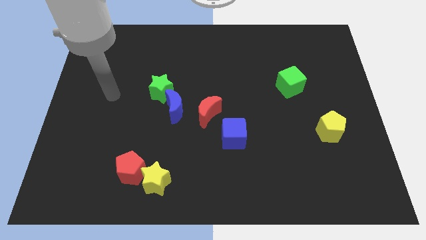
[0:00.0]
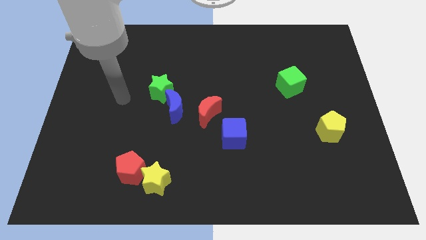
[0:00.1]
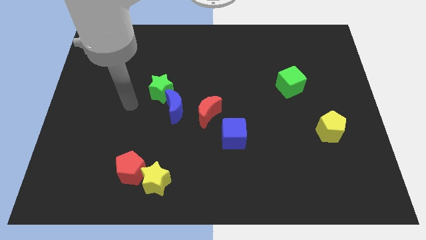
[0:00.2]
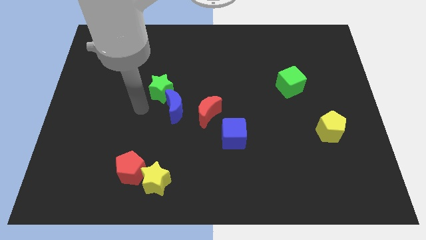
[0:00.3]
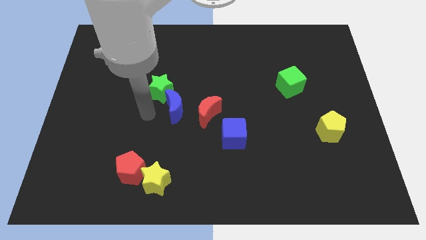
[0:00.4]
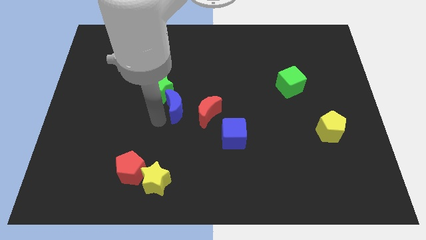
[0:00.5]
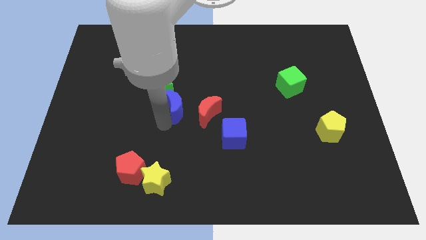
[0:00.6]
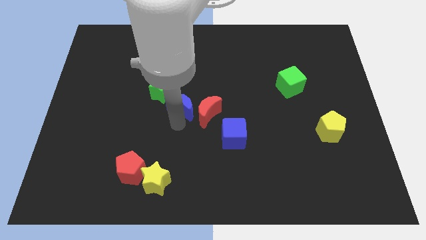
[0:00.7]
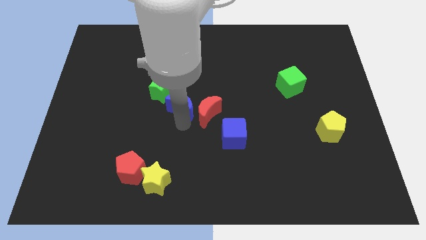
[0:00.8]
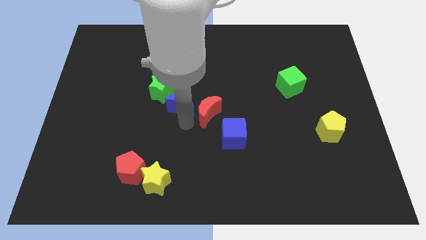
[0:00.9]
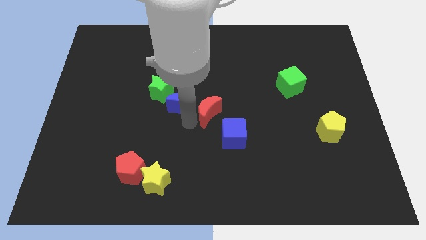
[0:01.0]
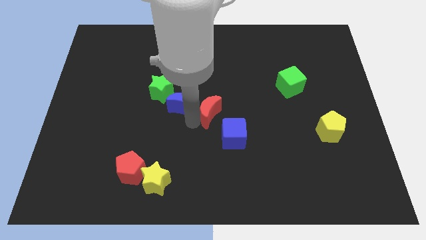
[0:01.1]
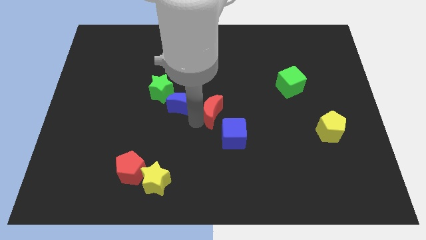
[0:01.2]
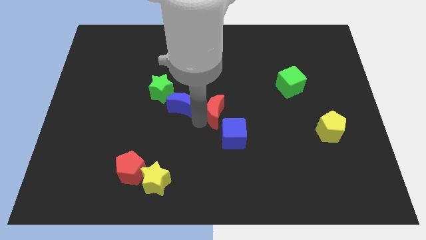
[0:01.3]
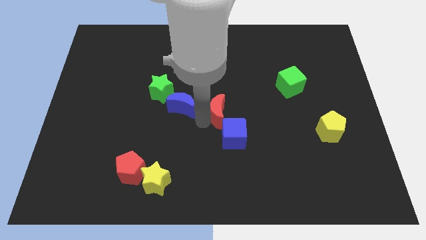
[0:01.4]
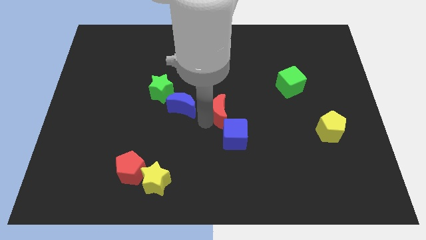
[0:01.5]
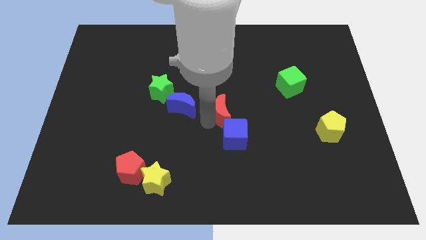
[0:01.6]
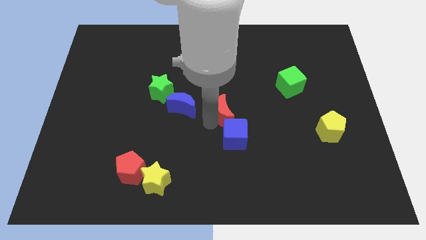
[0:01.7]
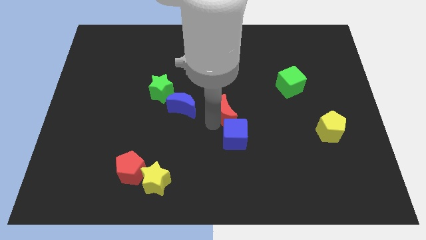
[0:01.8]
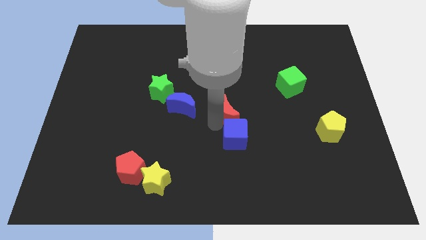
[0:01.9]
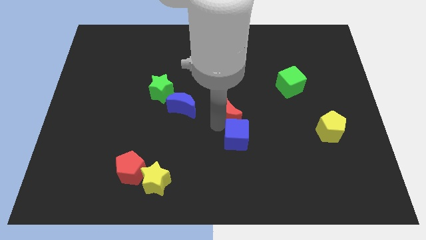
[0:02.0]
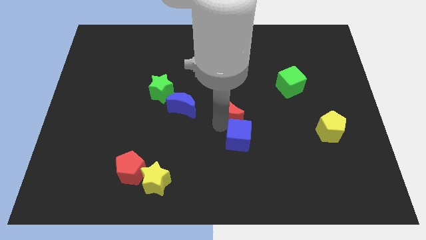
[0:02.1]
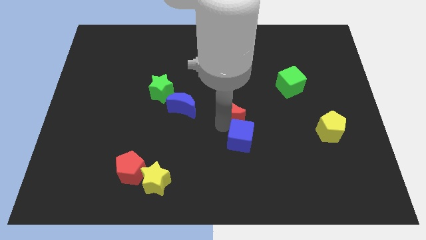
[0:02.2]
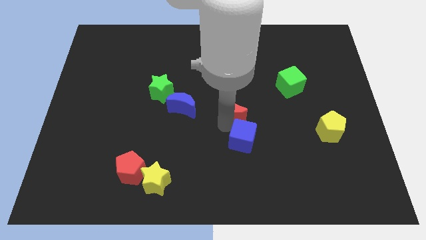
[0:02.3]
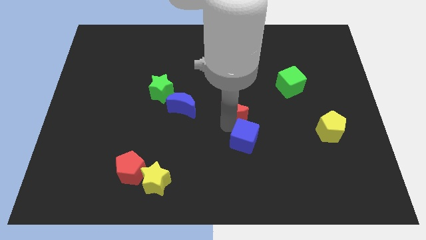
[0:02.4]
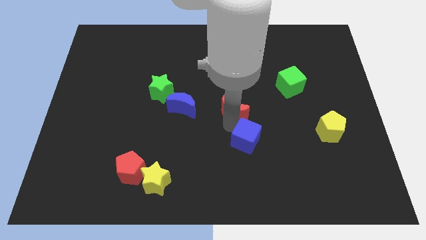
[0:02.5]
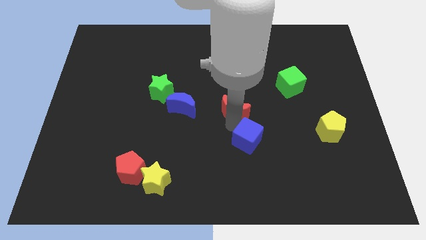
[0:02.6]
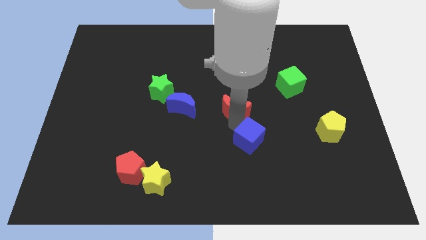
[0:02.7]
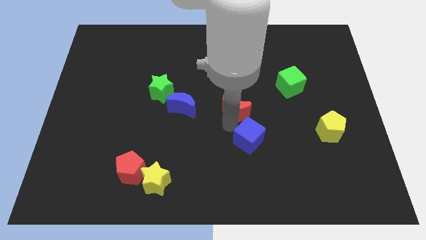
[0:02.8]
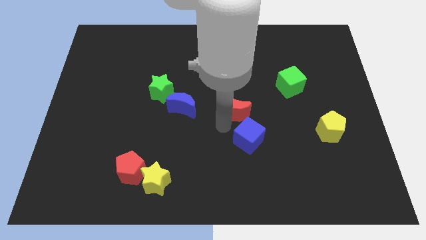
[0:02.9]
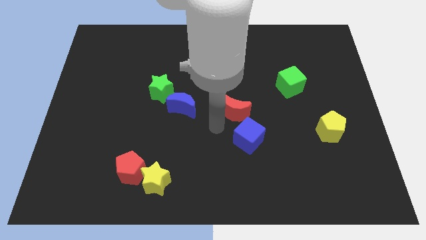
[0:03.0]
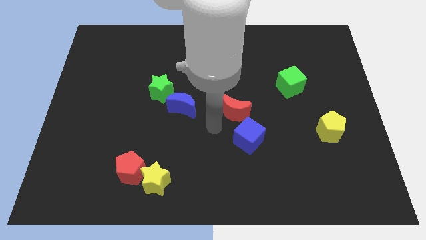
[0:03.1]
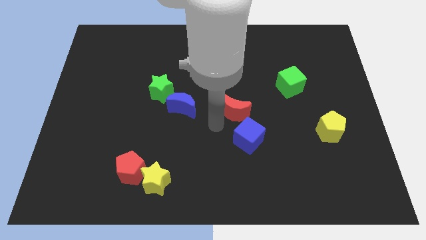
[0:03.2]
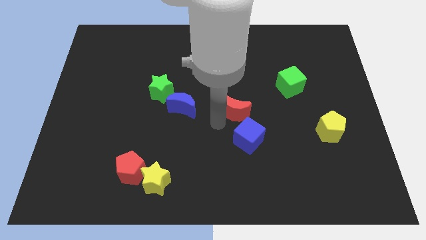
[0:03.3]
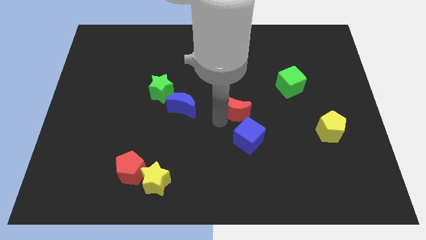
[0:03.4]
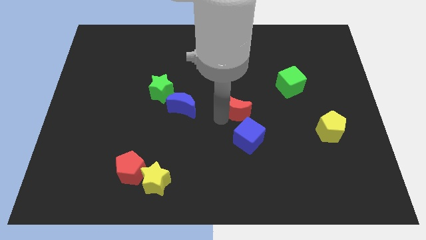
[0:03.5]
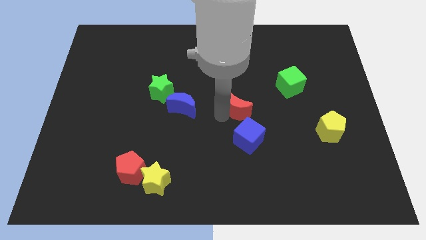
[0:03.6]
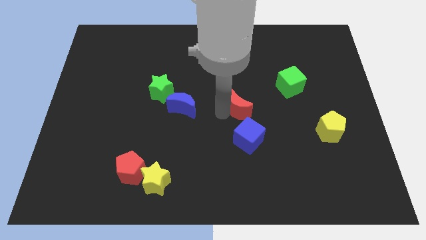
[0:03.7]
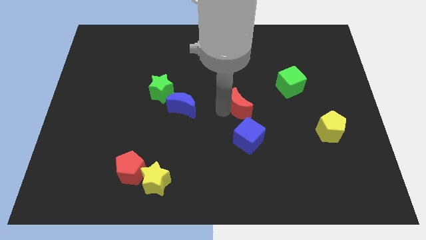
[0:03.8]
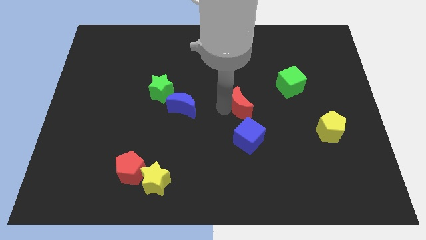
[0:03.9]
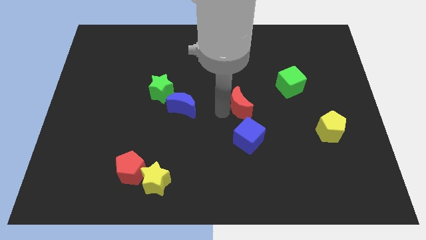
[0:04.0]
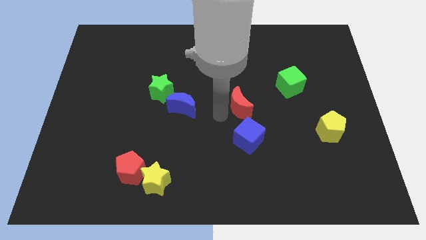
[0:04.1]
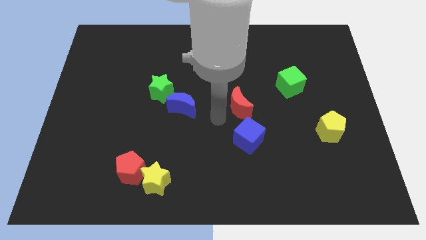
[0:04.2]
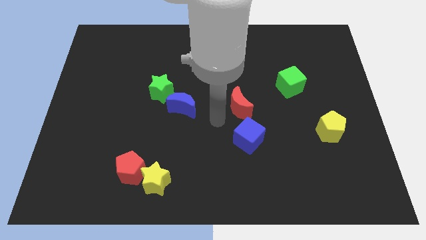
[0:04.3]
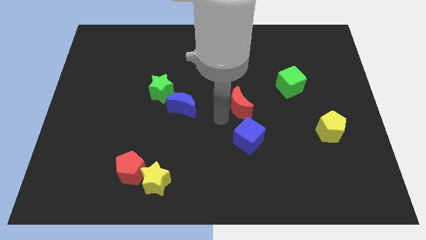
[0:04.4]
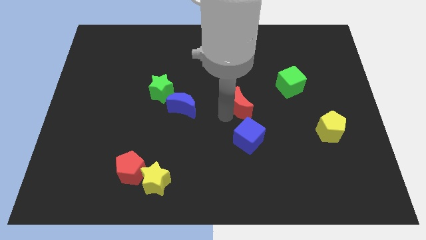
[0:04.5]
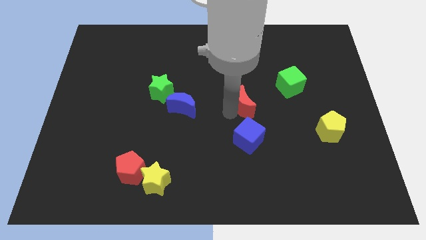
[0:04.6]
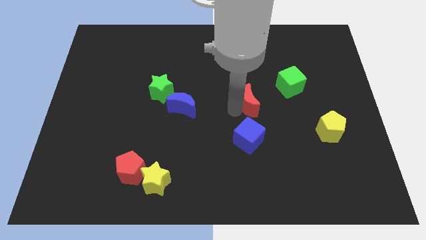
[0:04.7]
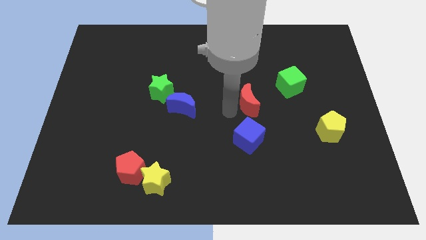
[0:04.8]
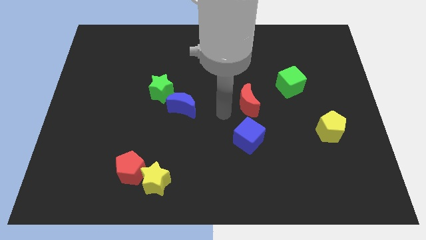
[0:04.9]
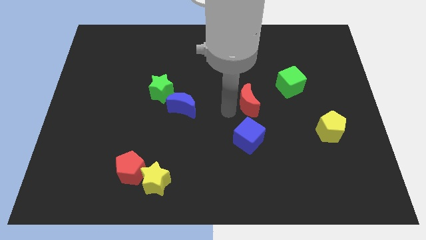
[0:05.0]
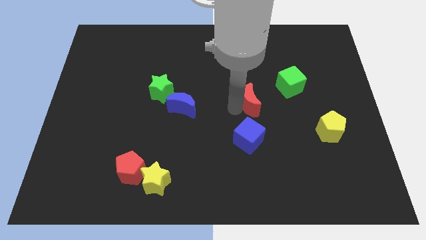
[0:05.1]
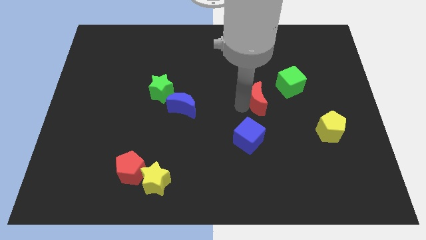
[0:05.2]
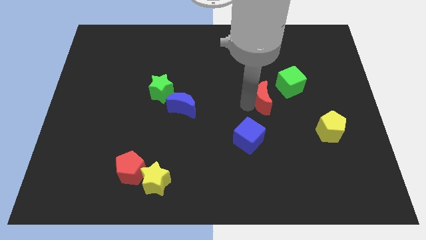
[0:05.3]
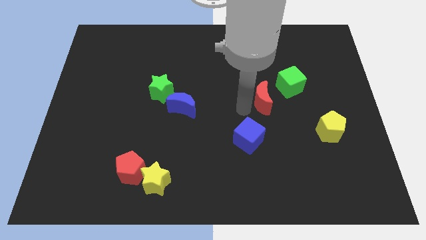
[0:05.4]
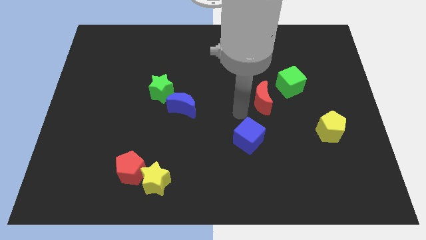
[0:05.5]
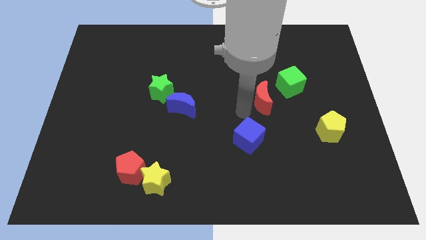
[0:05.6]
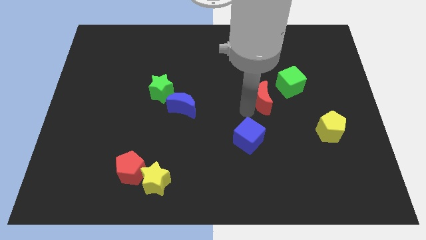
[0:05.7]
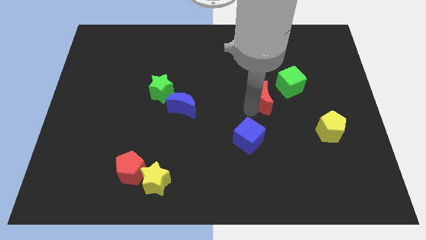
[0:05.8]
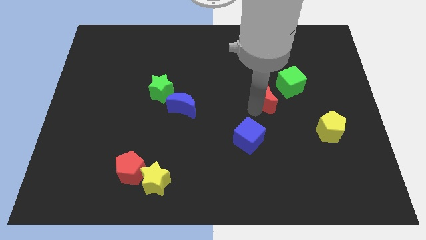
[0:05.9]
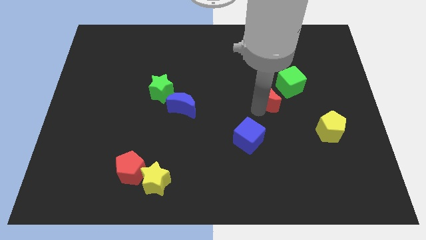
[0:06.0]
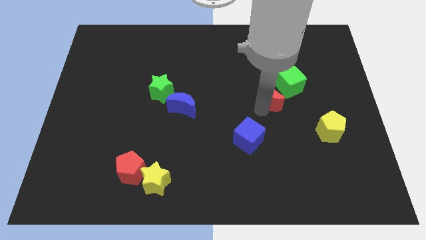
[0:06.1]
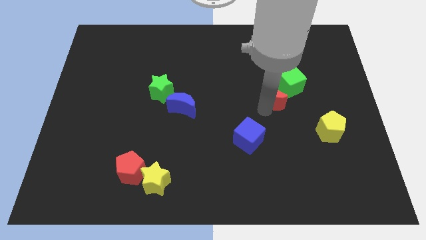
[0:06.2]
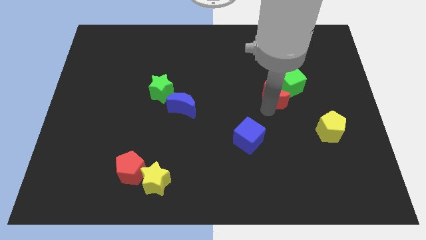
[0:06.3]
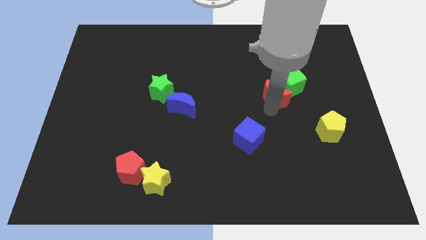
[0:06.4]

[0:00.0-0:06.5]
slide the red moon to the green cube

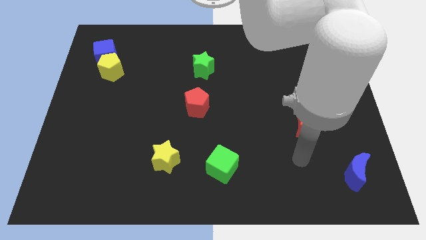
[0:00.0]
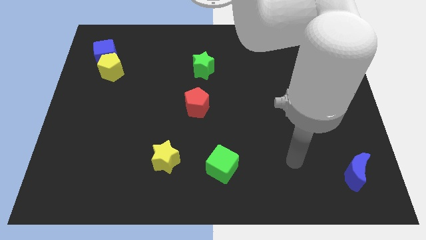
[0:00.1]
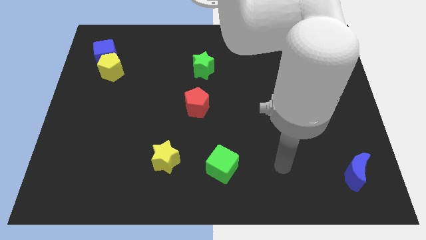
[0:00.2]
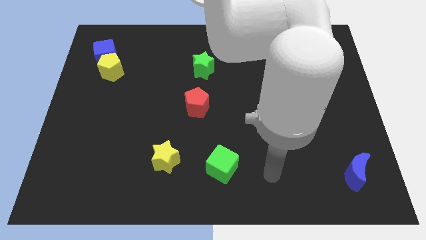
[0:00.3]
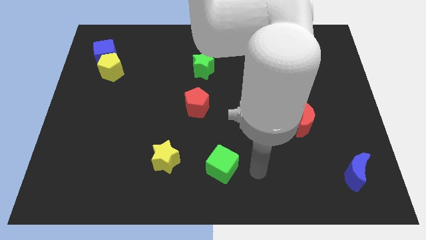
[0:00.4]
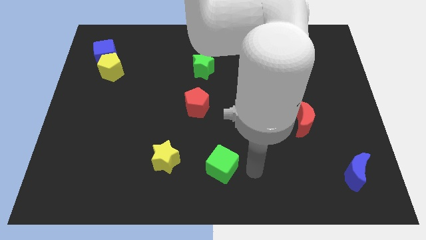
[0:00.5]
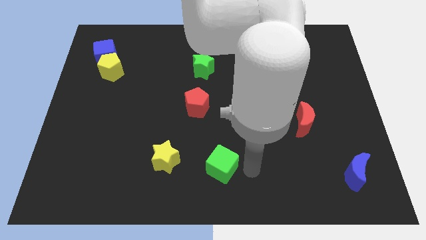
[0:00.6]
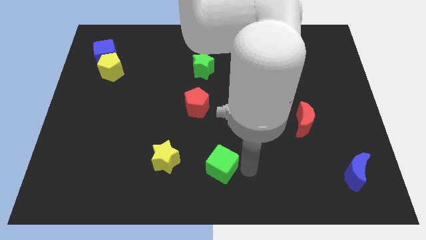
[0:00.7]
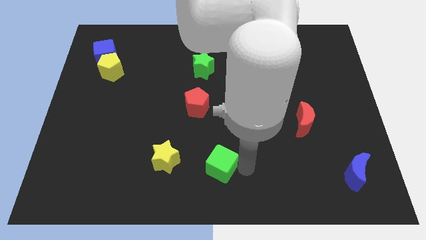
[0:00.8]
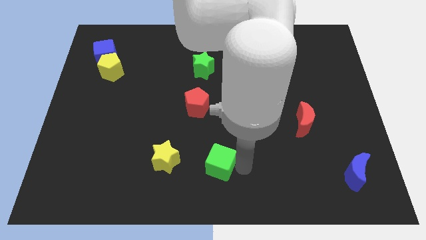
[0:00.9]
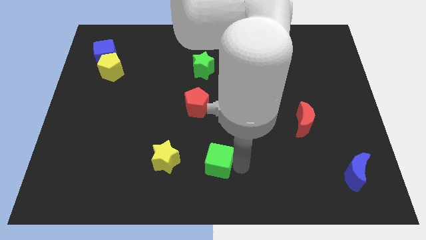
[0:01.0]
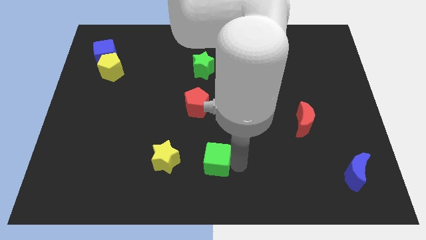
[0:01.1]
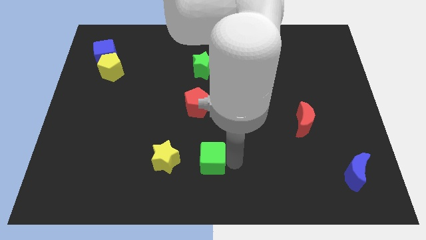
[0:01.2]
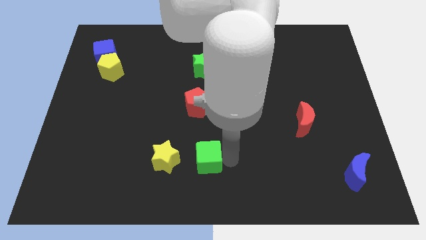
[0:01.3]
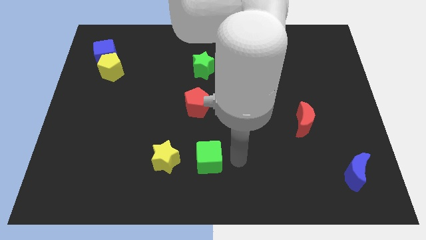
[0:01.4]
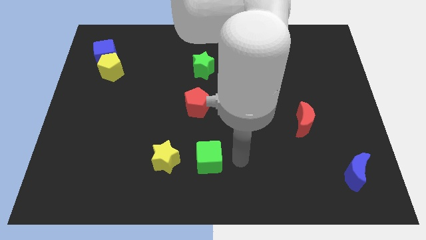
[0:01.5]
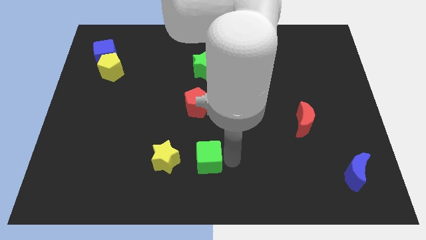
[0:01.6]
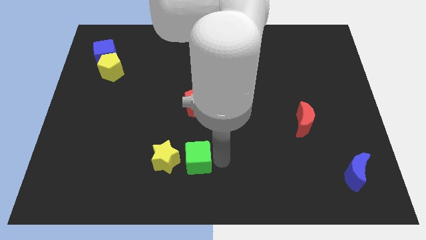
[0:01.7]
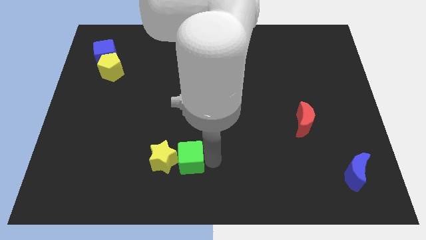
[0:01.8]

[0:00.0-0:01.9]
put the green cube to the yellow star
